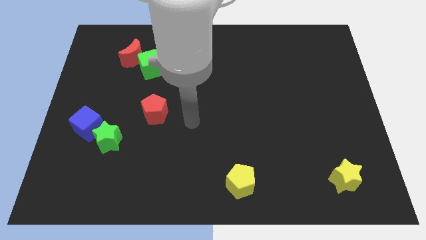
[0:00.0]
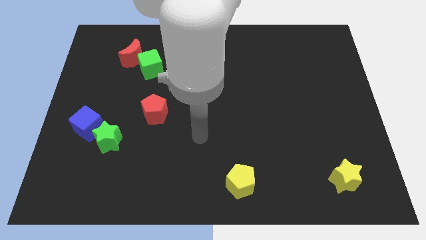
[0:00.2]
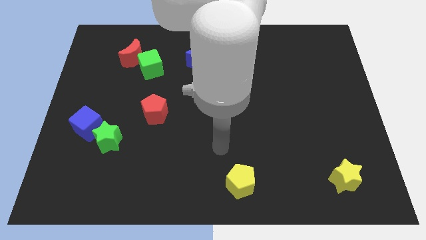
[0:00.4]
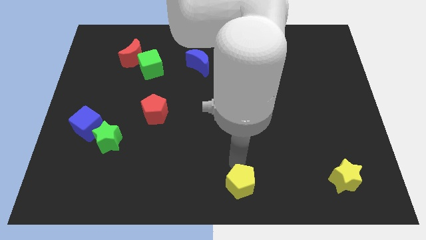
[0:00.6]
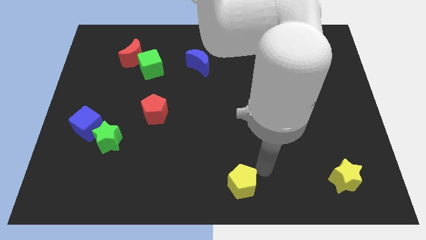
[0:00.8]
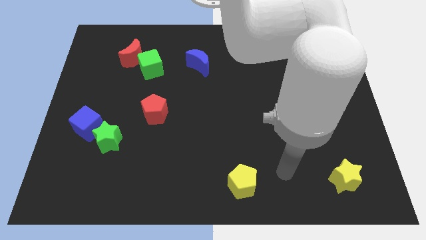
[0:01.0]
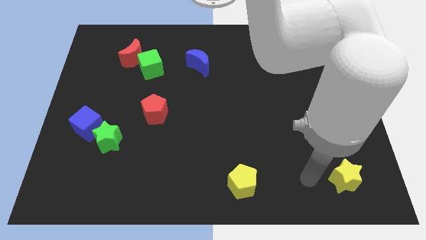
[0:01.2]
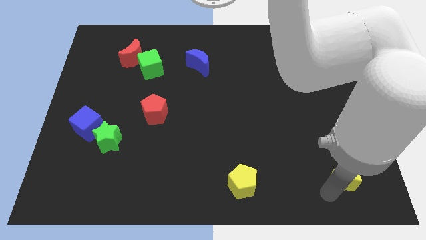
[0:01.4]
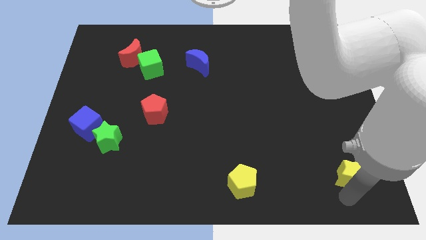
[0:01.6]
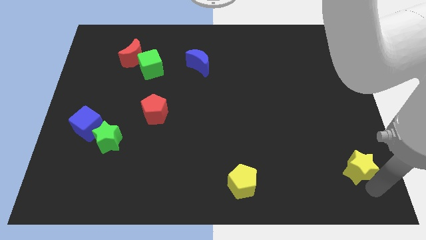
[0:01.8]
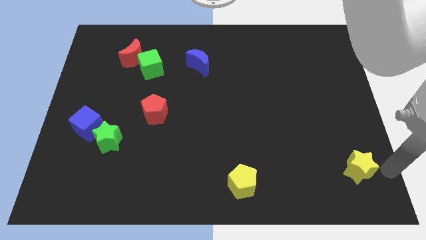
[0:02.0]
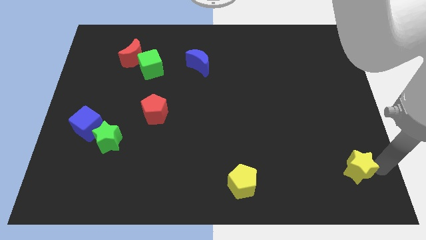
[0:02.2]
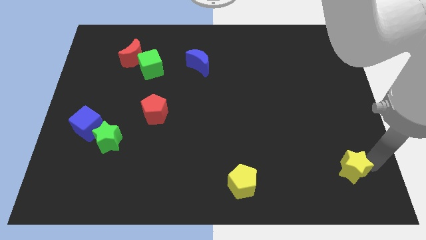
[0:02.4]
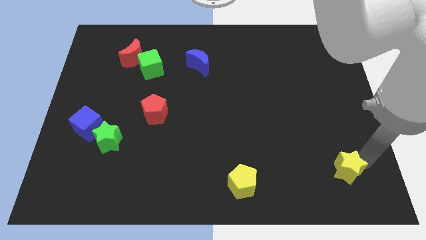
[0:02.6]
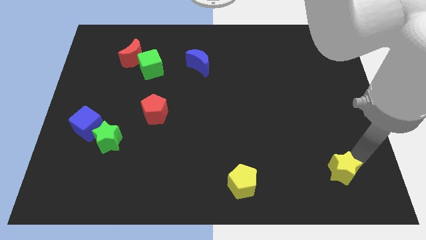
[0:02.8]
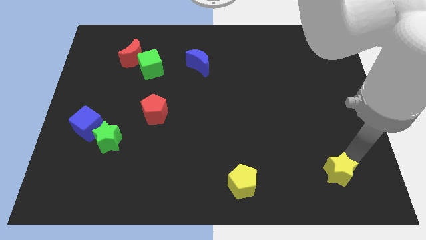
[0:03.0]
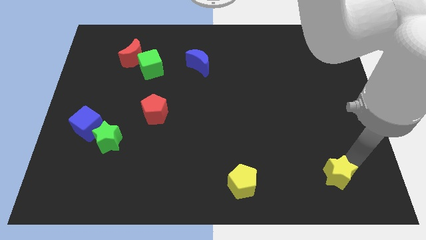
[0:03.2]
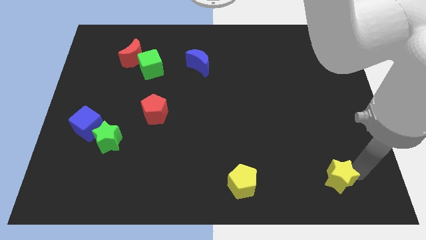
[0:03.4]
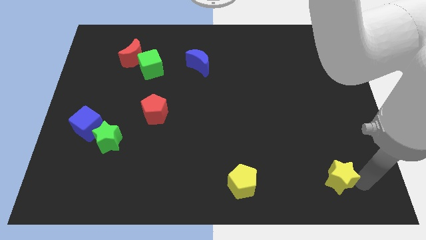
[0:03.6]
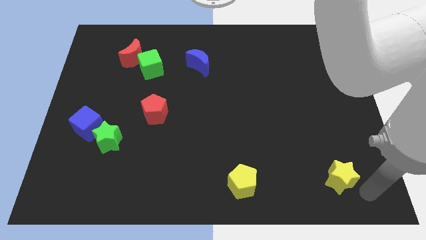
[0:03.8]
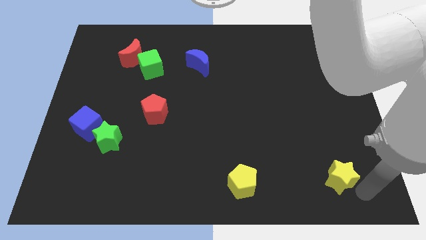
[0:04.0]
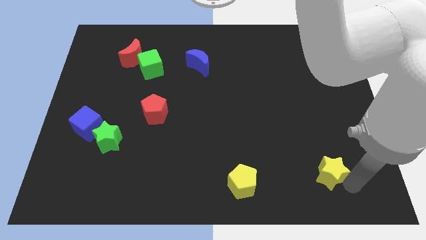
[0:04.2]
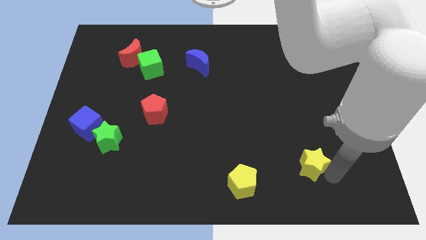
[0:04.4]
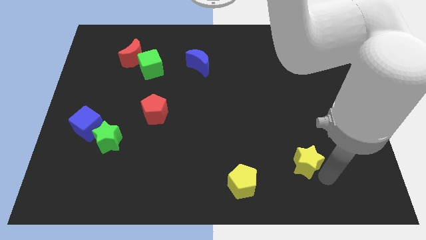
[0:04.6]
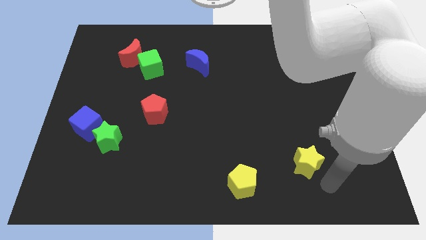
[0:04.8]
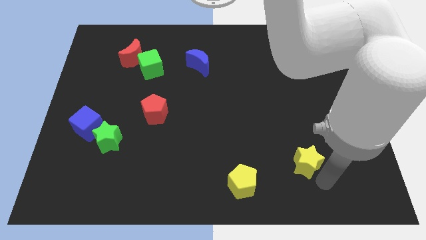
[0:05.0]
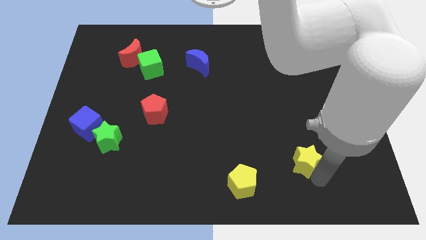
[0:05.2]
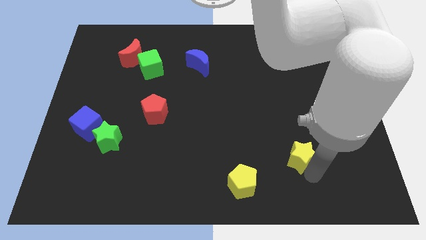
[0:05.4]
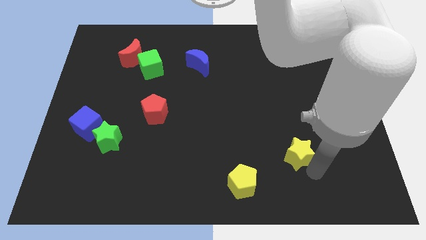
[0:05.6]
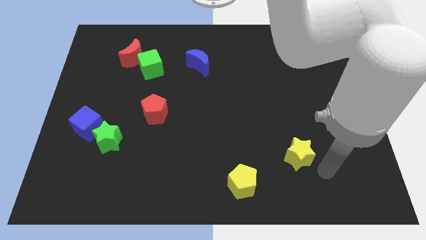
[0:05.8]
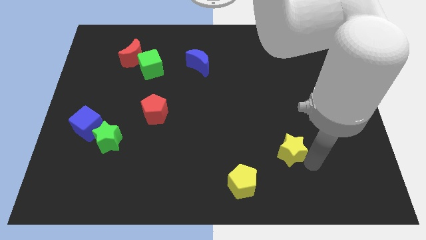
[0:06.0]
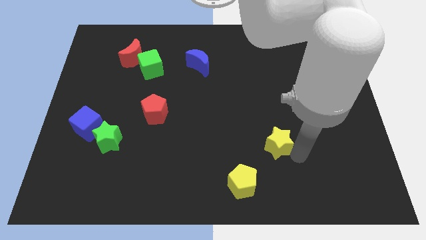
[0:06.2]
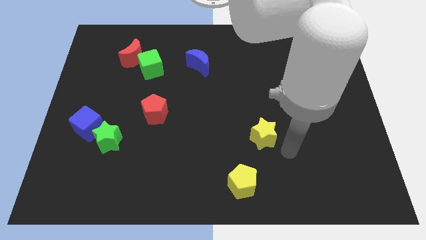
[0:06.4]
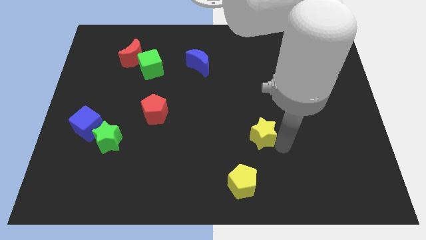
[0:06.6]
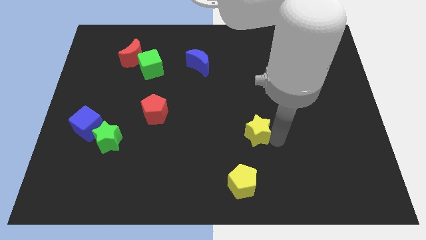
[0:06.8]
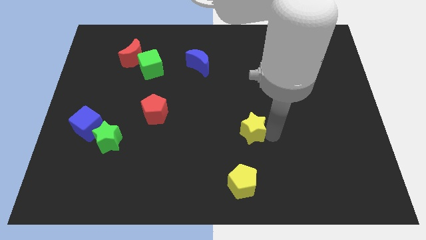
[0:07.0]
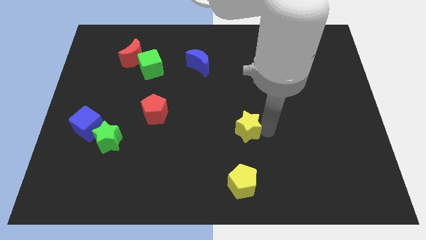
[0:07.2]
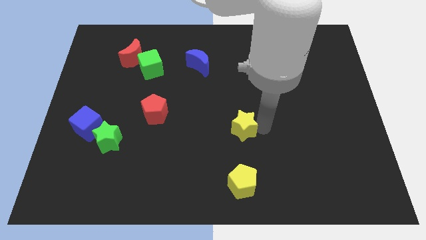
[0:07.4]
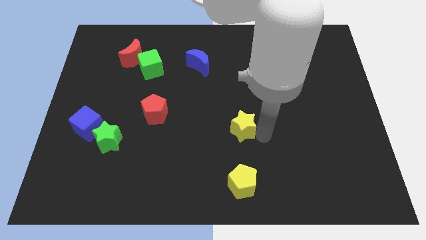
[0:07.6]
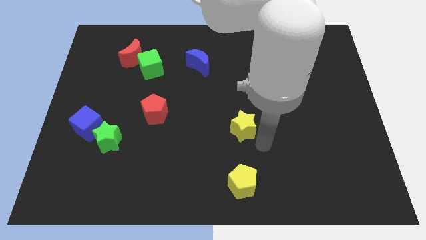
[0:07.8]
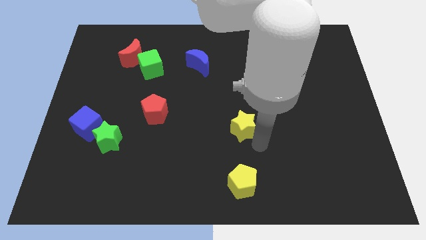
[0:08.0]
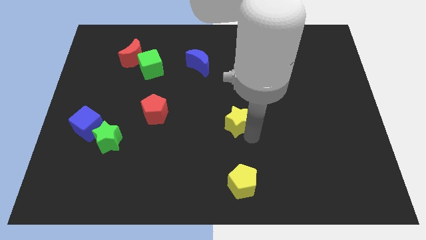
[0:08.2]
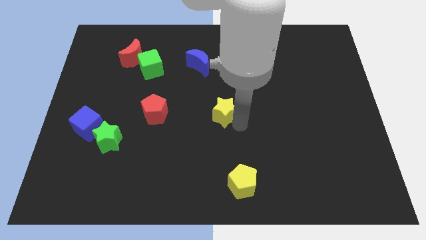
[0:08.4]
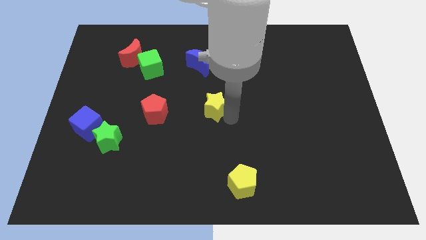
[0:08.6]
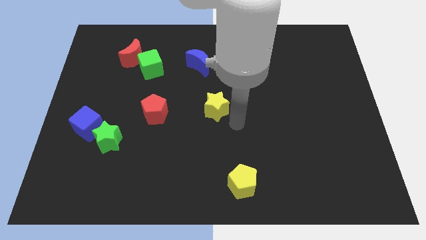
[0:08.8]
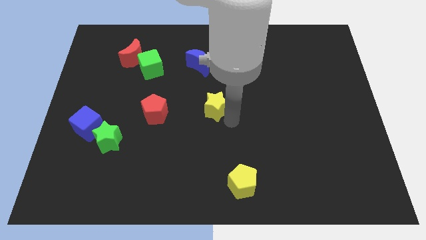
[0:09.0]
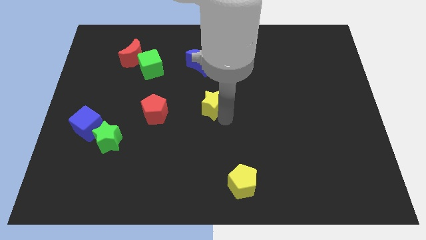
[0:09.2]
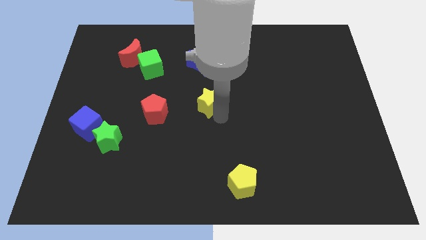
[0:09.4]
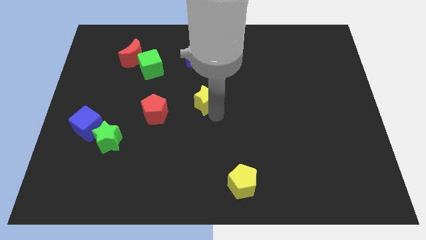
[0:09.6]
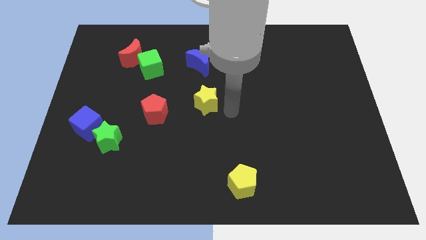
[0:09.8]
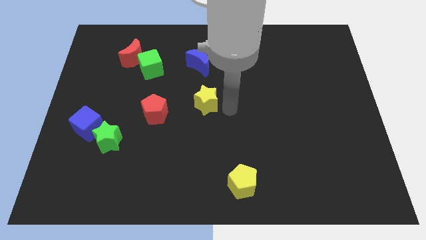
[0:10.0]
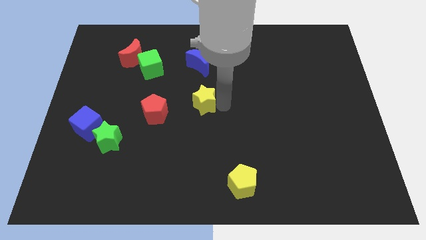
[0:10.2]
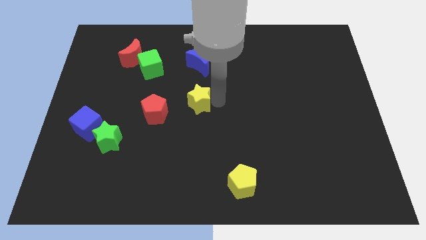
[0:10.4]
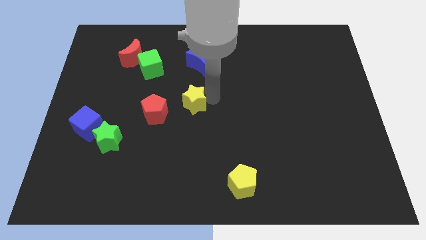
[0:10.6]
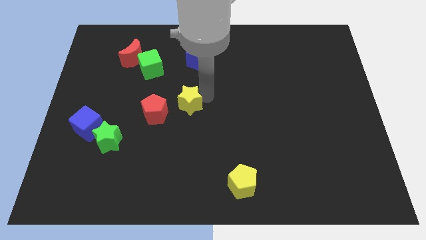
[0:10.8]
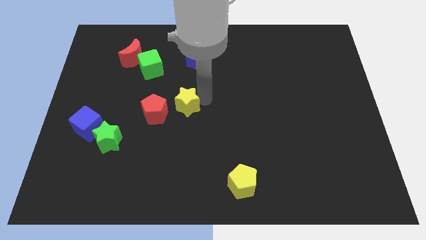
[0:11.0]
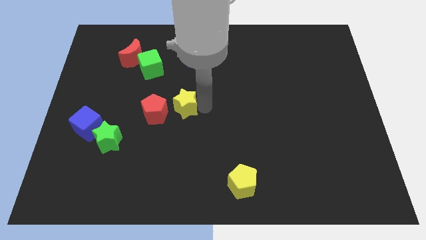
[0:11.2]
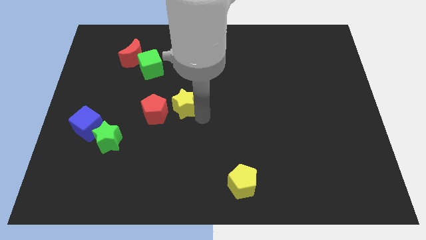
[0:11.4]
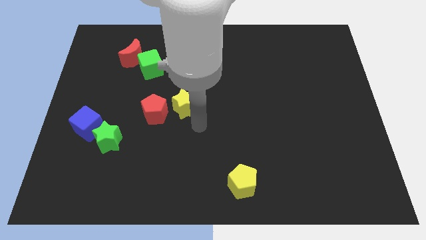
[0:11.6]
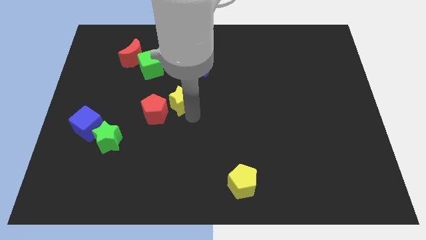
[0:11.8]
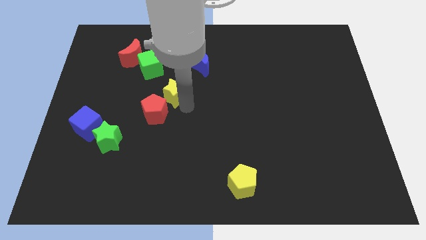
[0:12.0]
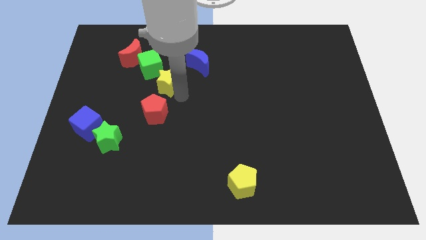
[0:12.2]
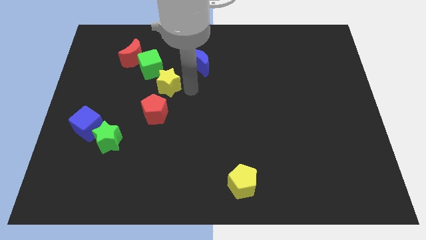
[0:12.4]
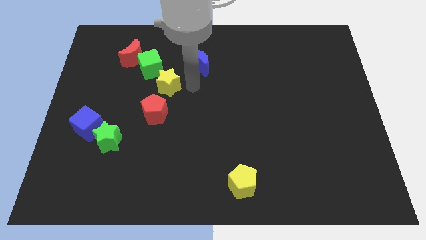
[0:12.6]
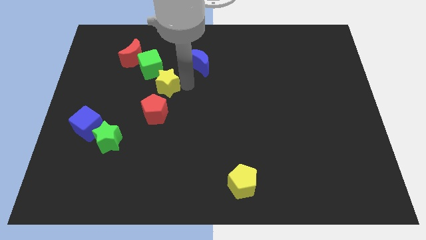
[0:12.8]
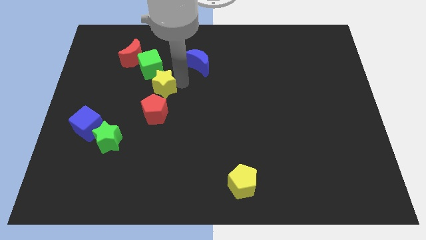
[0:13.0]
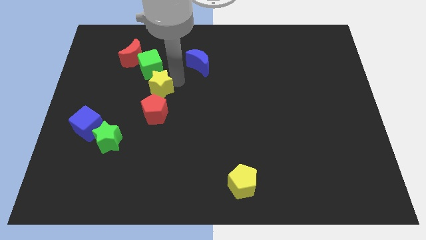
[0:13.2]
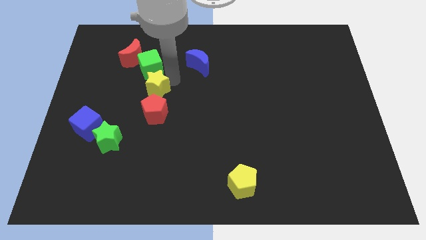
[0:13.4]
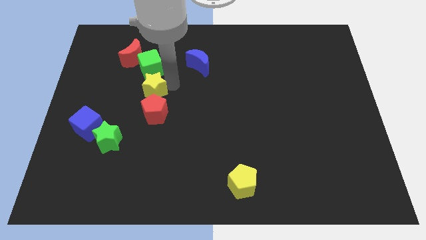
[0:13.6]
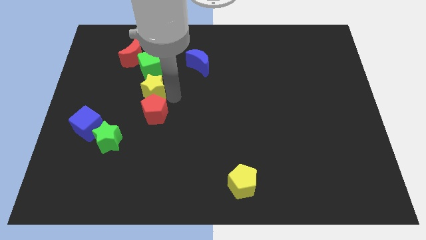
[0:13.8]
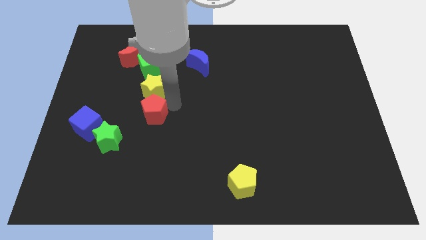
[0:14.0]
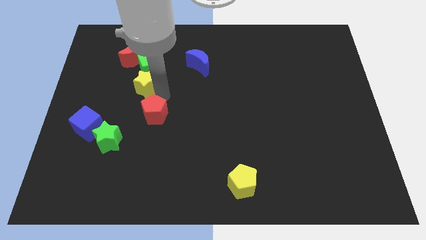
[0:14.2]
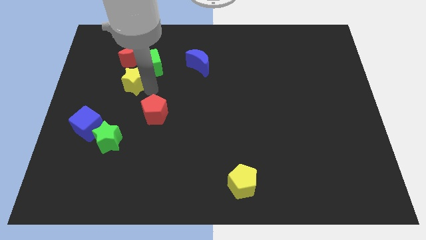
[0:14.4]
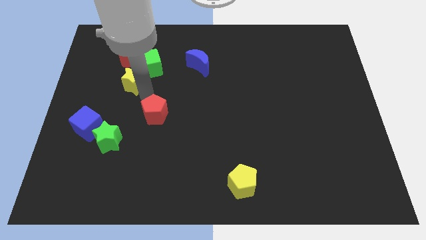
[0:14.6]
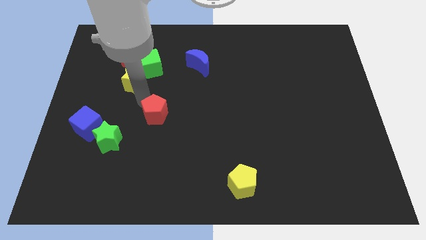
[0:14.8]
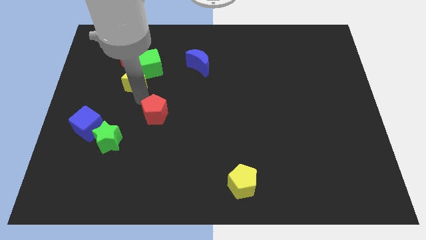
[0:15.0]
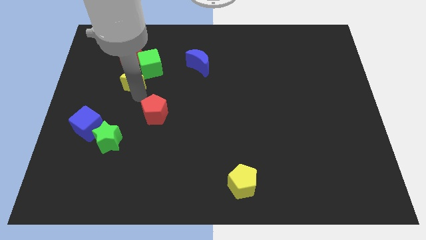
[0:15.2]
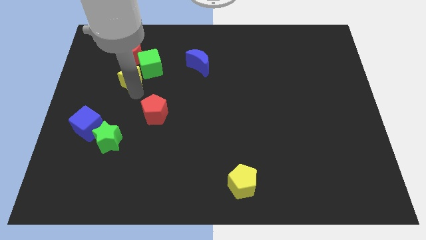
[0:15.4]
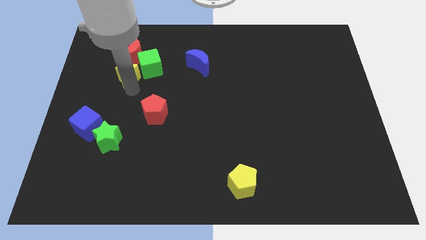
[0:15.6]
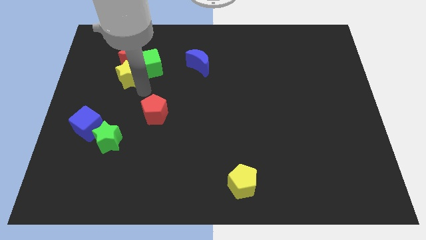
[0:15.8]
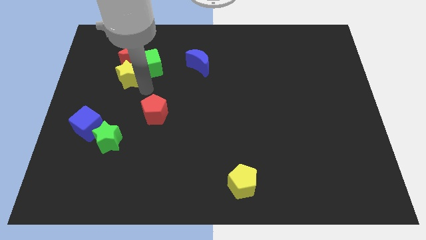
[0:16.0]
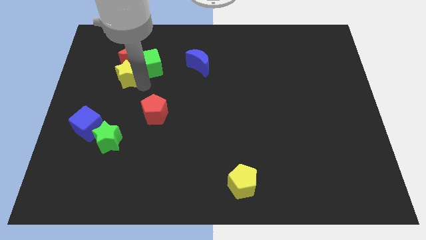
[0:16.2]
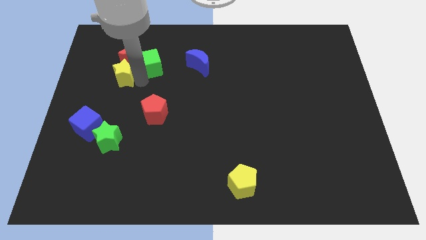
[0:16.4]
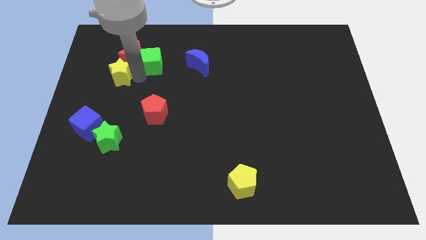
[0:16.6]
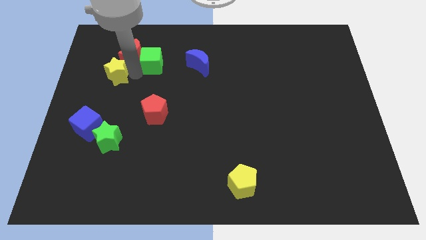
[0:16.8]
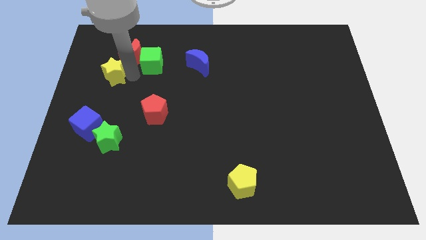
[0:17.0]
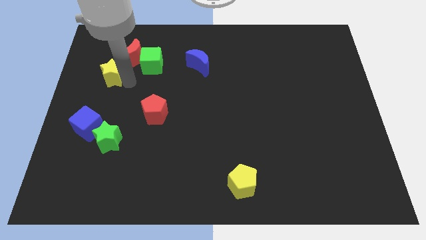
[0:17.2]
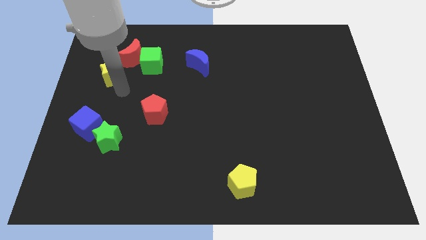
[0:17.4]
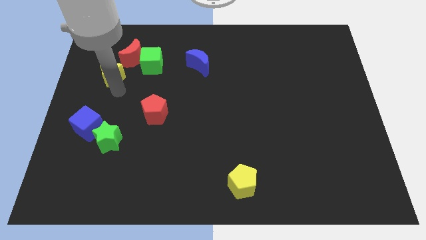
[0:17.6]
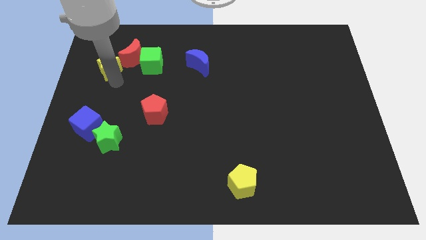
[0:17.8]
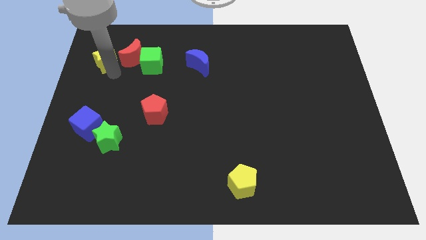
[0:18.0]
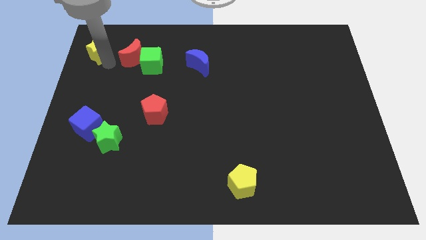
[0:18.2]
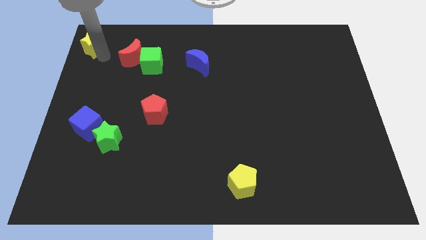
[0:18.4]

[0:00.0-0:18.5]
push the yellow star to the upper left corner
